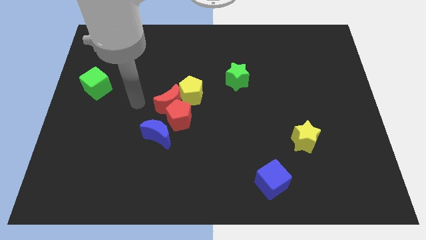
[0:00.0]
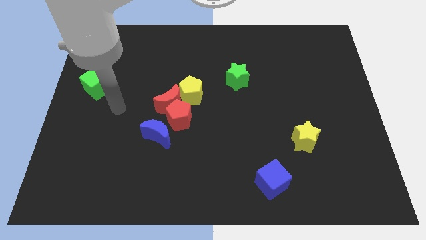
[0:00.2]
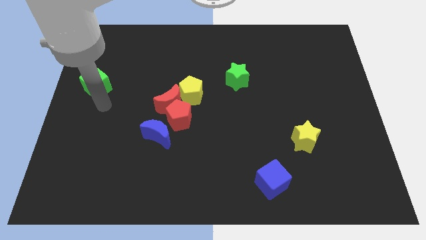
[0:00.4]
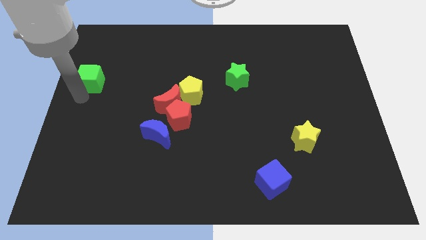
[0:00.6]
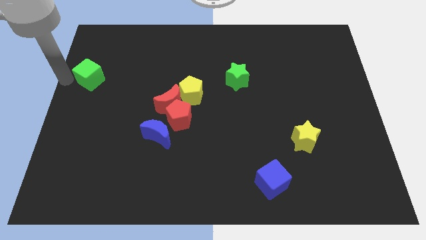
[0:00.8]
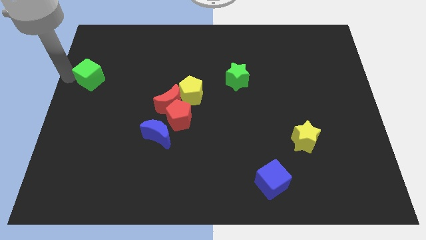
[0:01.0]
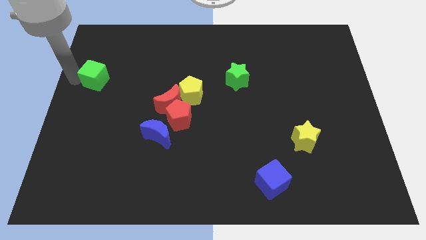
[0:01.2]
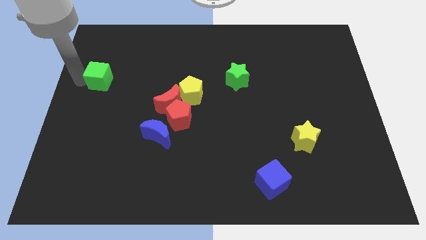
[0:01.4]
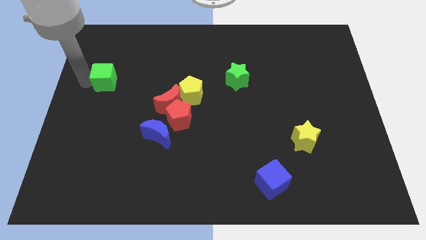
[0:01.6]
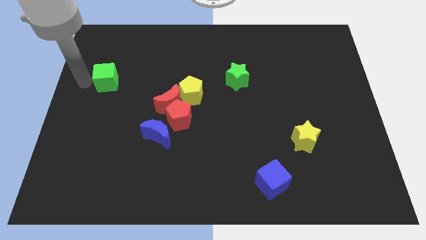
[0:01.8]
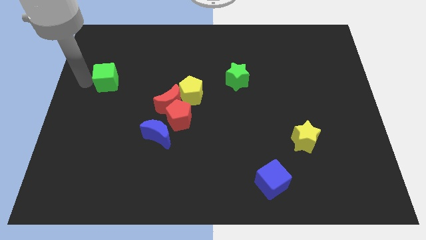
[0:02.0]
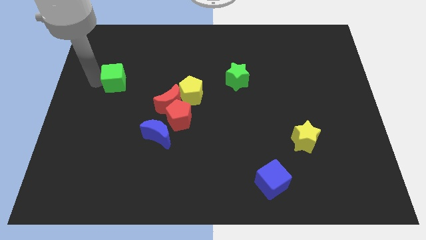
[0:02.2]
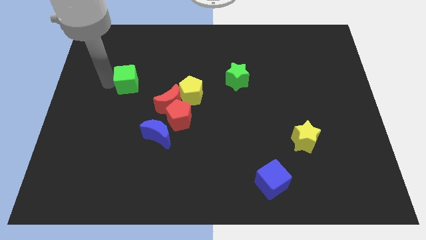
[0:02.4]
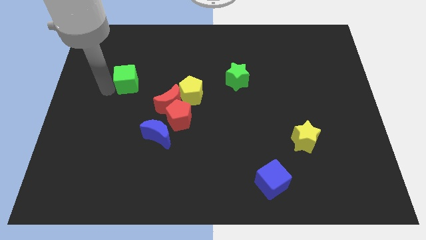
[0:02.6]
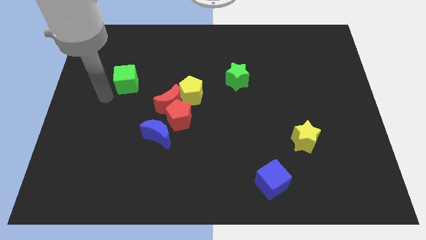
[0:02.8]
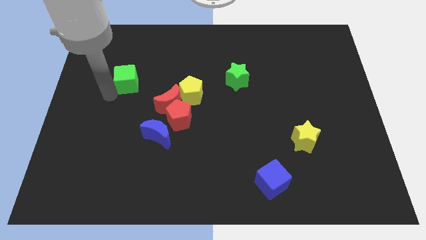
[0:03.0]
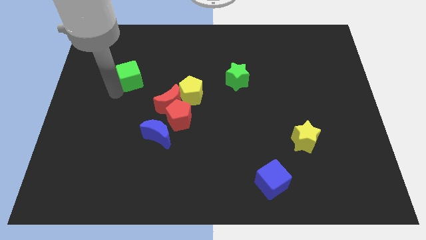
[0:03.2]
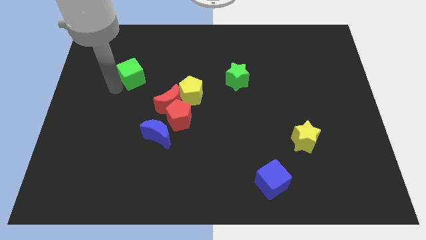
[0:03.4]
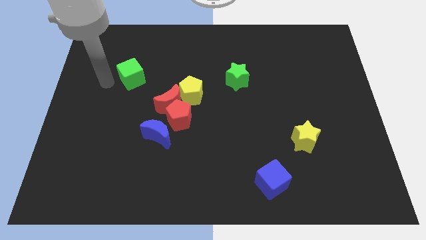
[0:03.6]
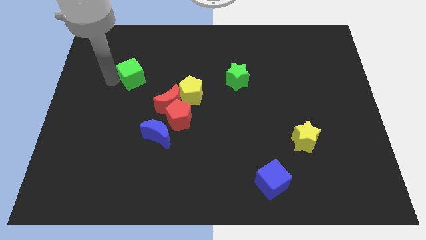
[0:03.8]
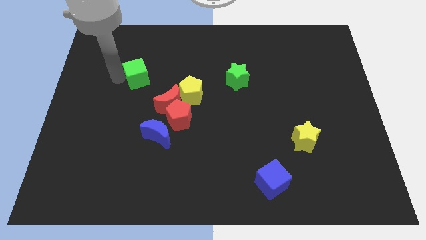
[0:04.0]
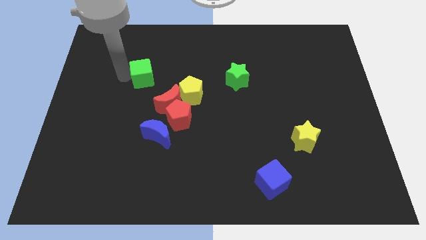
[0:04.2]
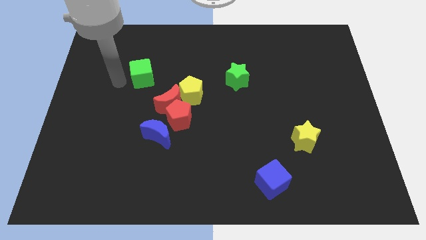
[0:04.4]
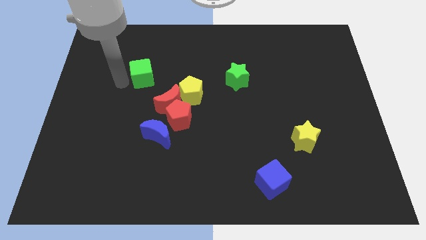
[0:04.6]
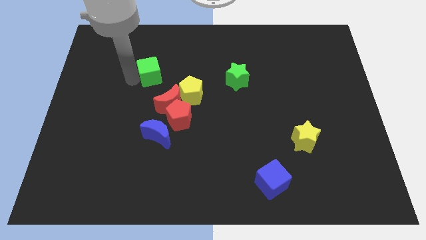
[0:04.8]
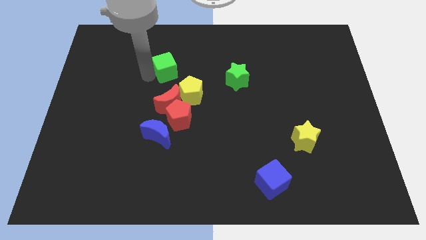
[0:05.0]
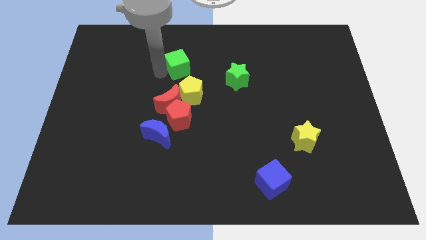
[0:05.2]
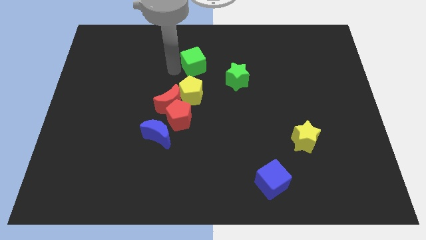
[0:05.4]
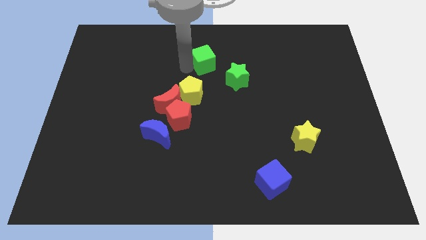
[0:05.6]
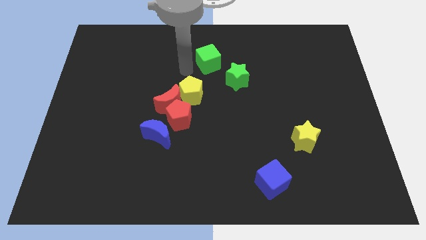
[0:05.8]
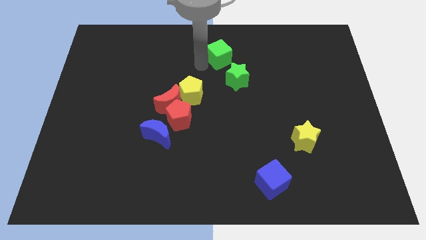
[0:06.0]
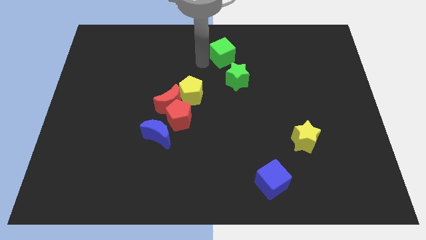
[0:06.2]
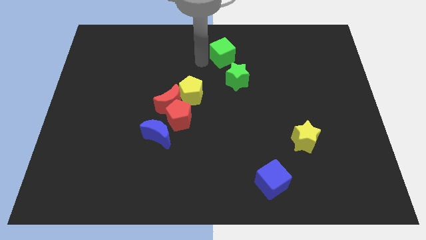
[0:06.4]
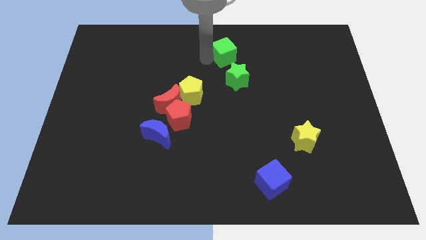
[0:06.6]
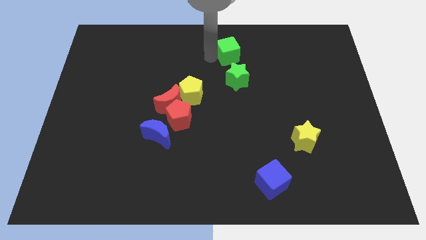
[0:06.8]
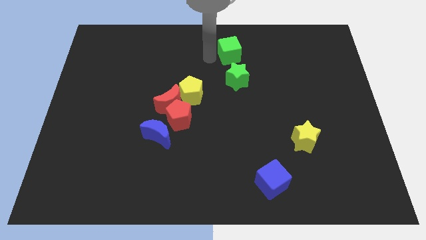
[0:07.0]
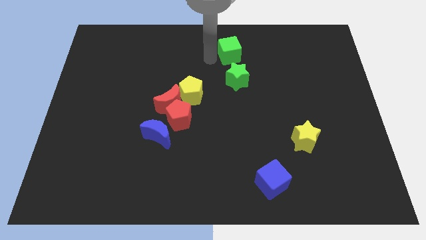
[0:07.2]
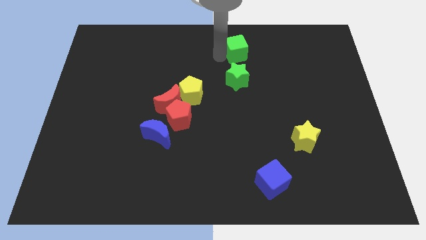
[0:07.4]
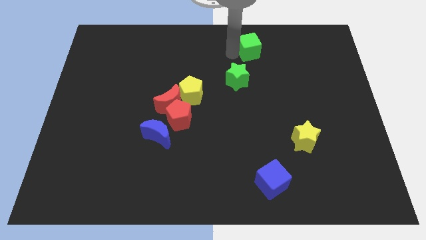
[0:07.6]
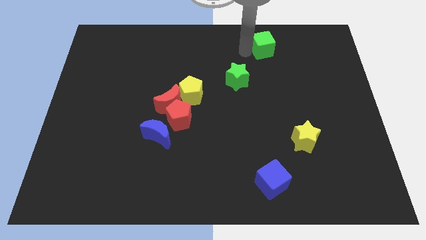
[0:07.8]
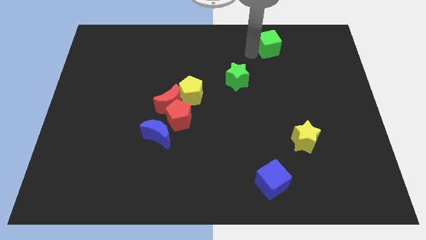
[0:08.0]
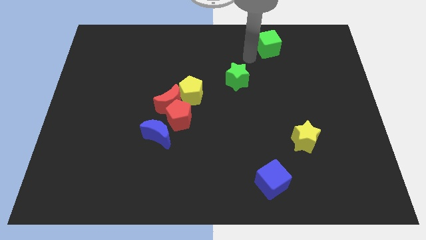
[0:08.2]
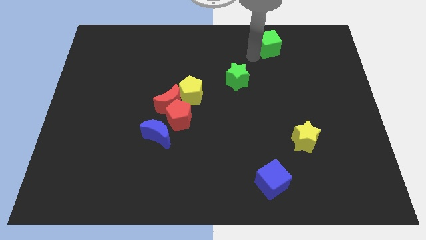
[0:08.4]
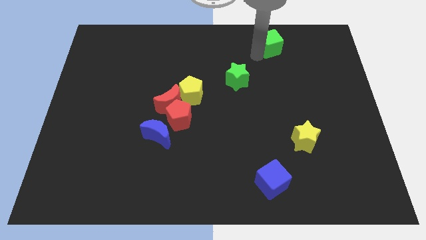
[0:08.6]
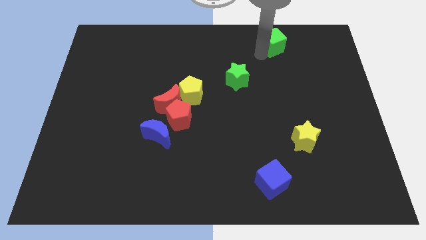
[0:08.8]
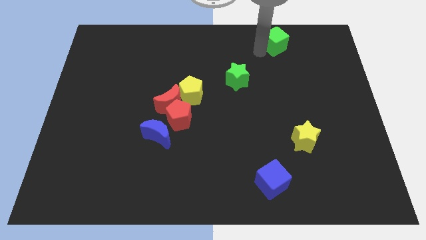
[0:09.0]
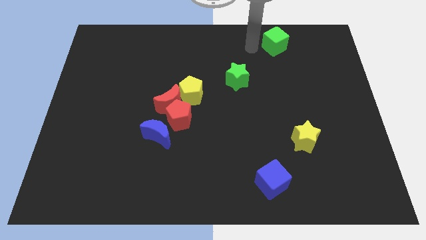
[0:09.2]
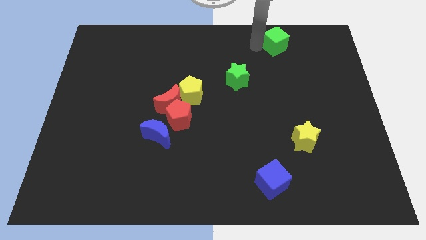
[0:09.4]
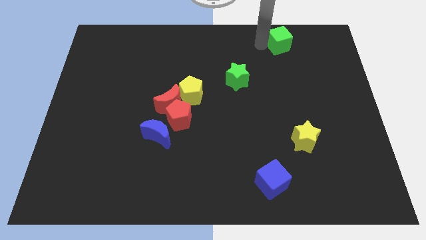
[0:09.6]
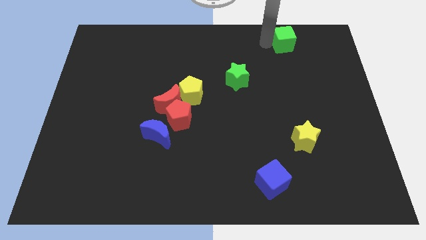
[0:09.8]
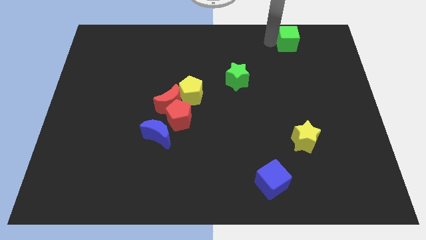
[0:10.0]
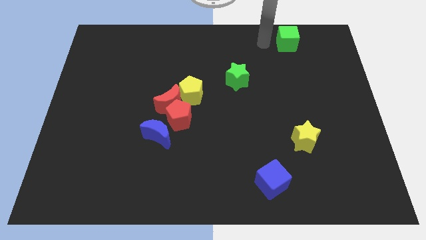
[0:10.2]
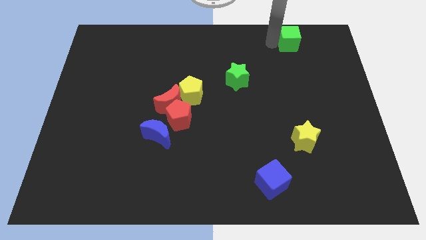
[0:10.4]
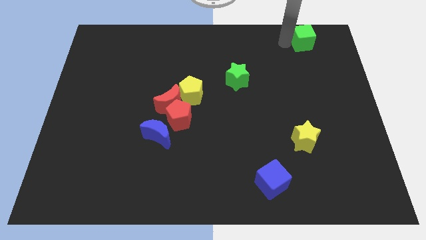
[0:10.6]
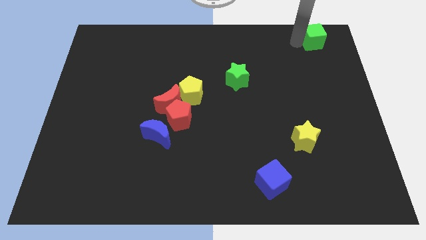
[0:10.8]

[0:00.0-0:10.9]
move the green cube to the top right
